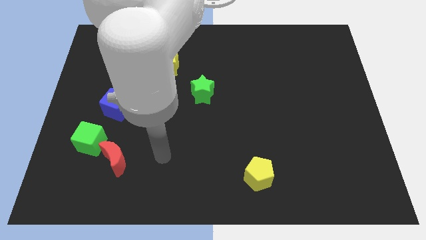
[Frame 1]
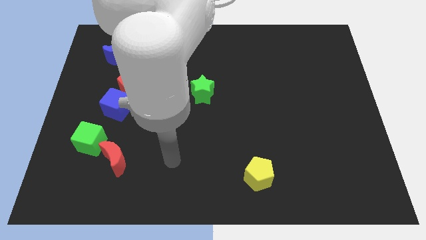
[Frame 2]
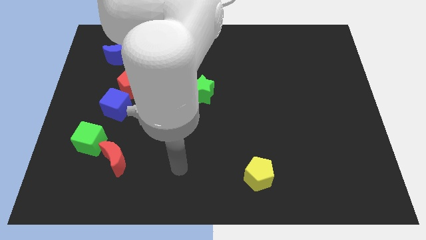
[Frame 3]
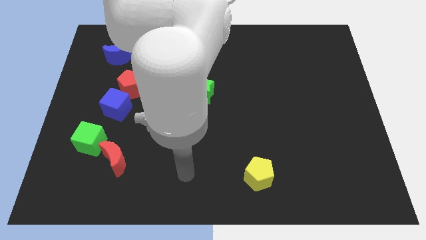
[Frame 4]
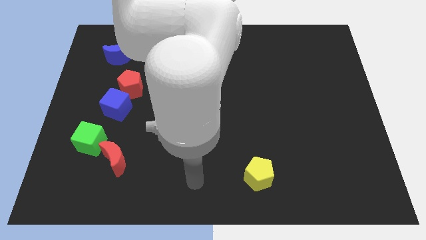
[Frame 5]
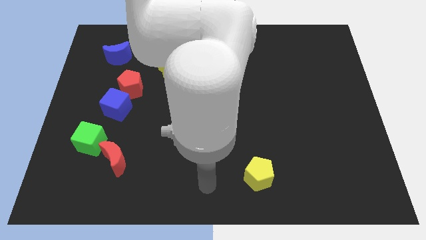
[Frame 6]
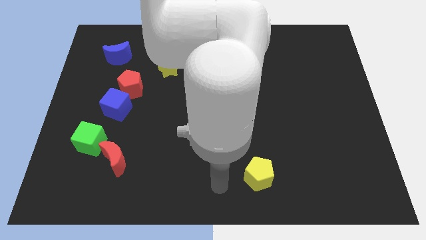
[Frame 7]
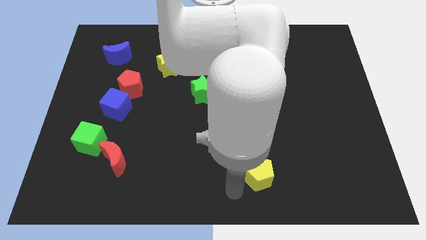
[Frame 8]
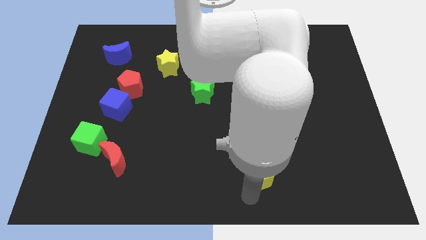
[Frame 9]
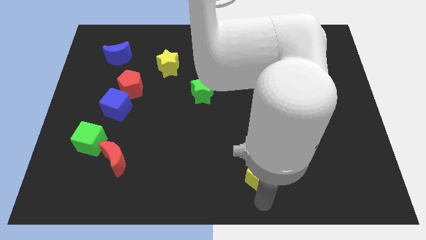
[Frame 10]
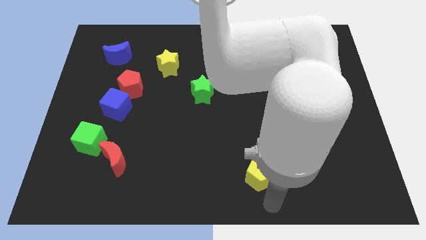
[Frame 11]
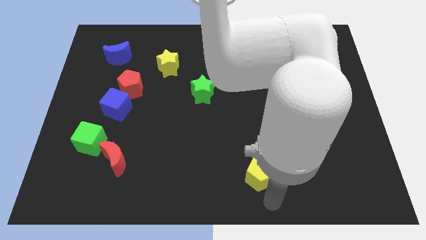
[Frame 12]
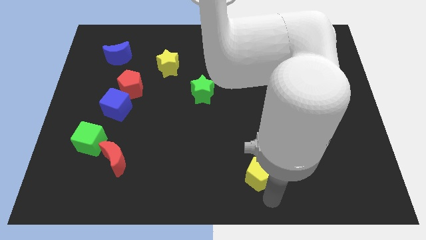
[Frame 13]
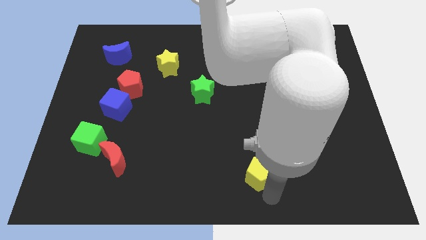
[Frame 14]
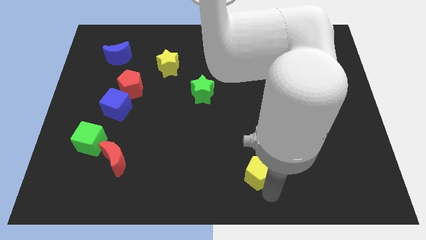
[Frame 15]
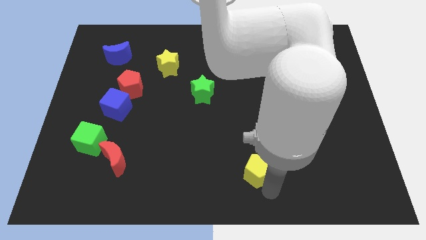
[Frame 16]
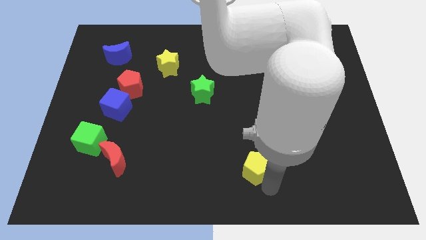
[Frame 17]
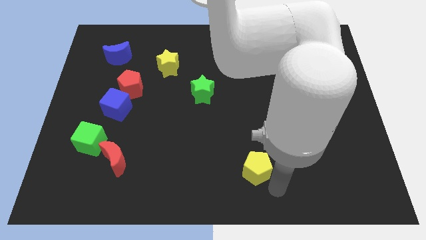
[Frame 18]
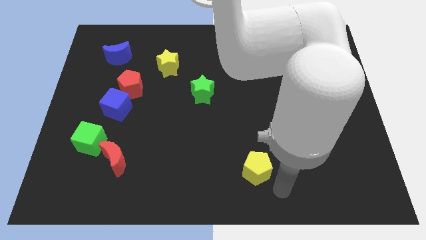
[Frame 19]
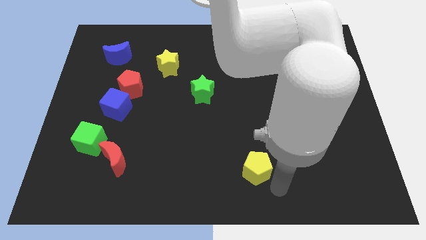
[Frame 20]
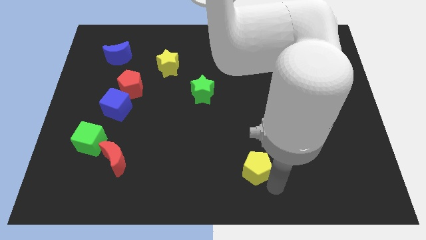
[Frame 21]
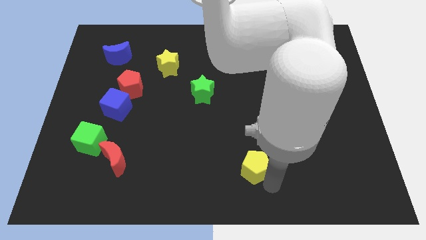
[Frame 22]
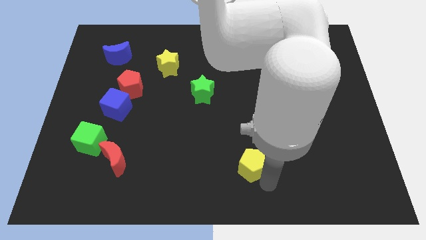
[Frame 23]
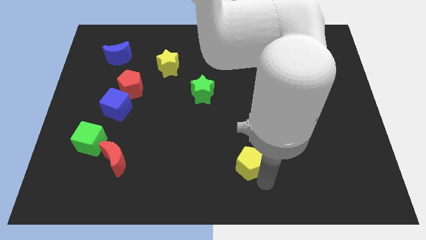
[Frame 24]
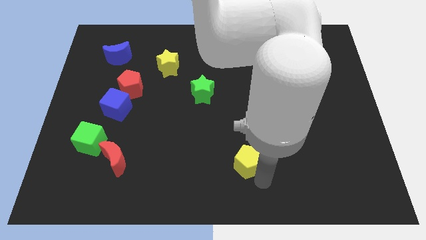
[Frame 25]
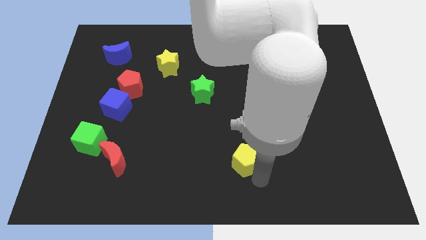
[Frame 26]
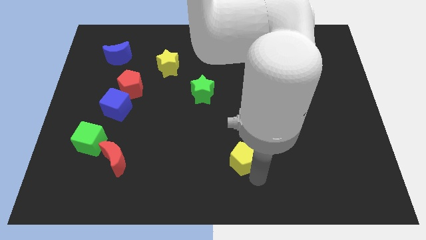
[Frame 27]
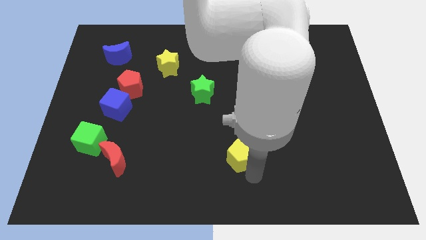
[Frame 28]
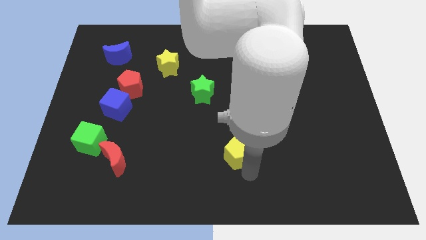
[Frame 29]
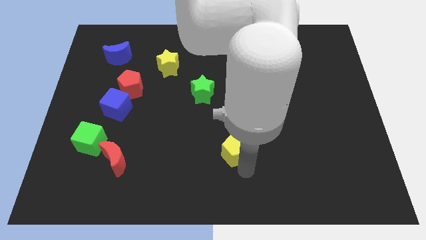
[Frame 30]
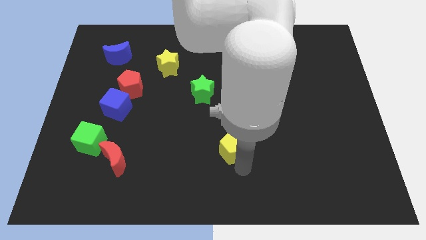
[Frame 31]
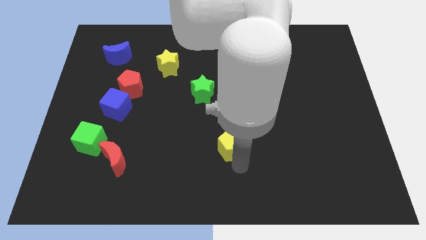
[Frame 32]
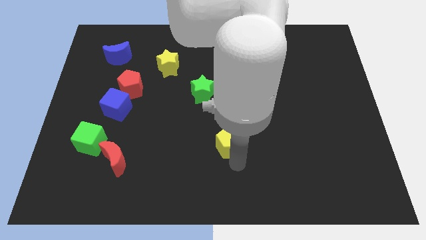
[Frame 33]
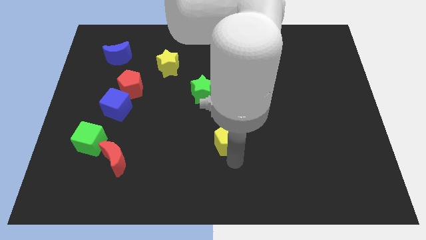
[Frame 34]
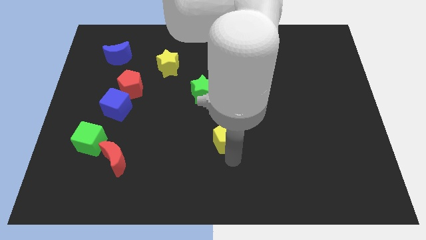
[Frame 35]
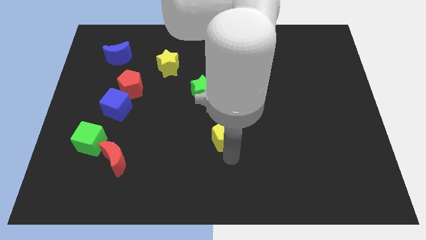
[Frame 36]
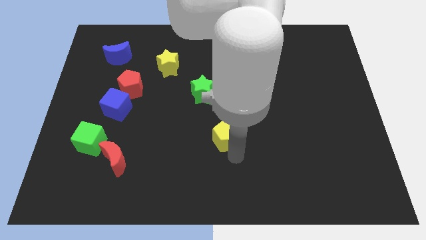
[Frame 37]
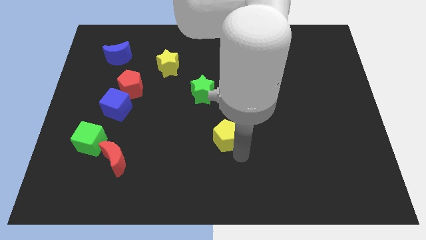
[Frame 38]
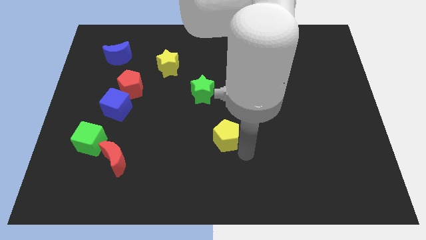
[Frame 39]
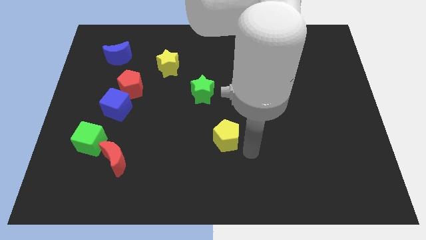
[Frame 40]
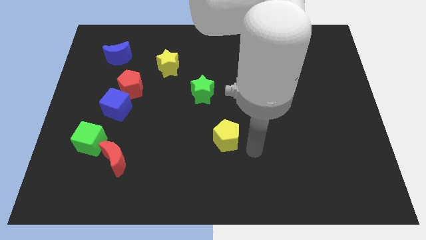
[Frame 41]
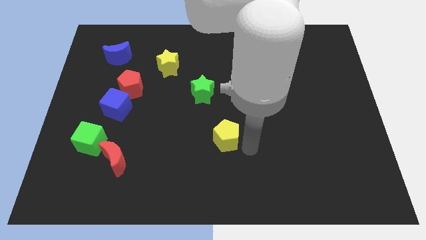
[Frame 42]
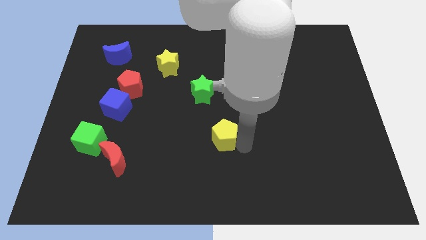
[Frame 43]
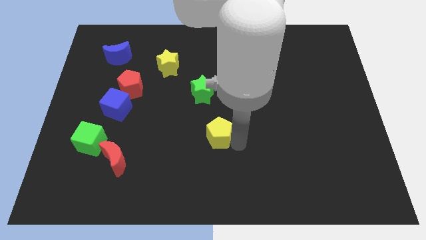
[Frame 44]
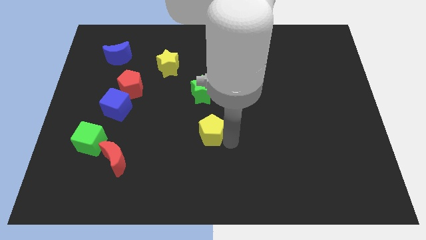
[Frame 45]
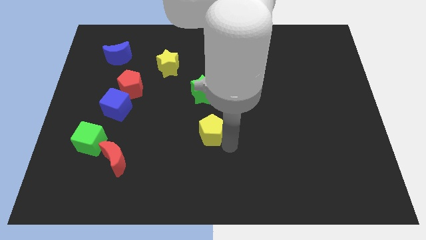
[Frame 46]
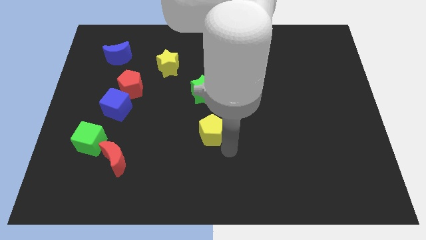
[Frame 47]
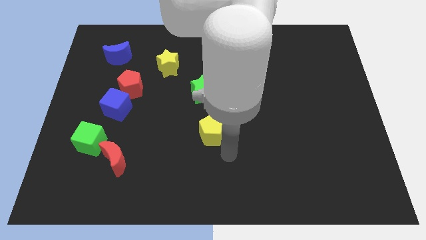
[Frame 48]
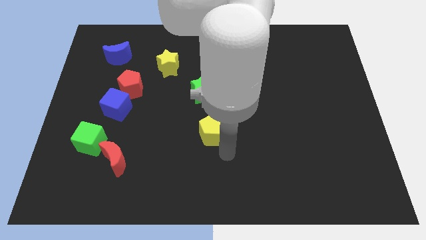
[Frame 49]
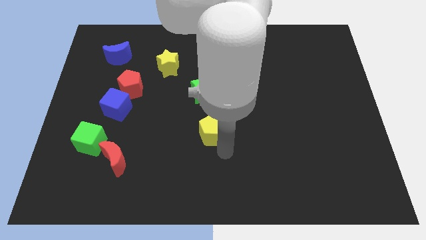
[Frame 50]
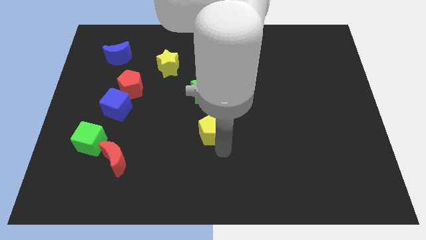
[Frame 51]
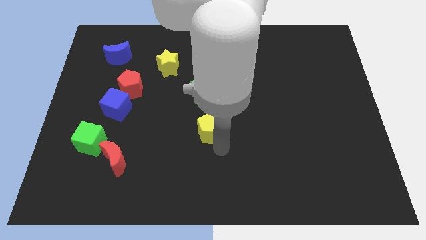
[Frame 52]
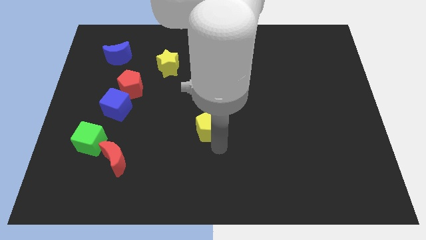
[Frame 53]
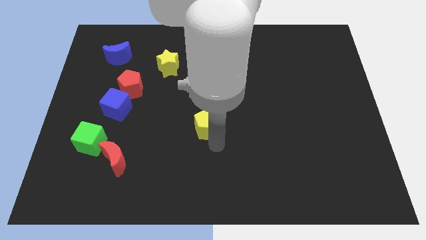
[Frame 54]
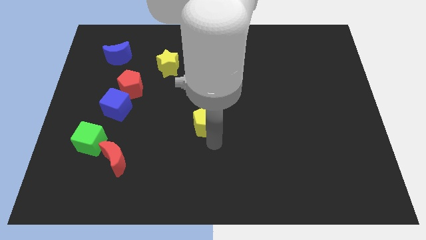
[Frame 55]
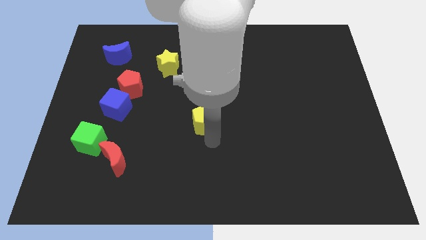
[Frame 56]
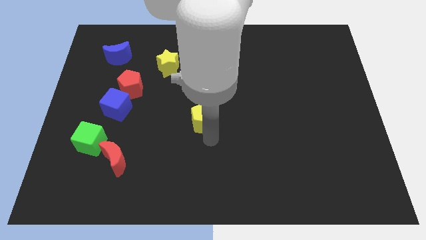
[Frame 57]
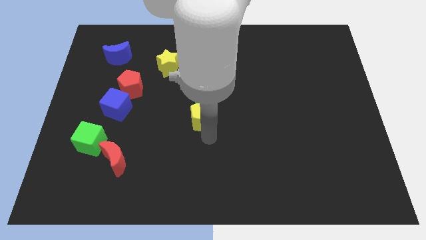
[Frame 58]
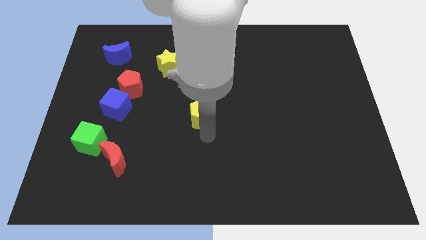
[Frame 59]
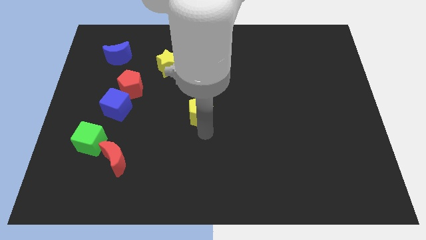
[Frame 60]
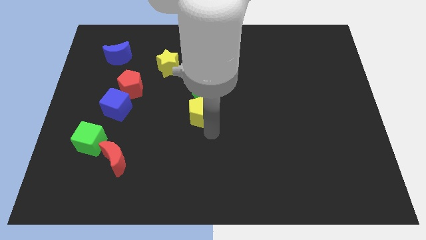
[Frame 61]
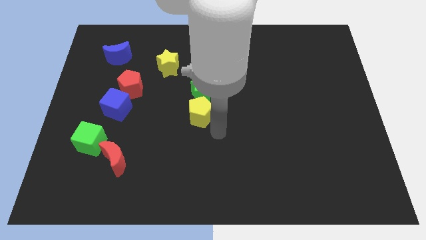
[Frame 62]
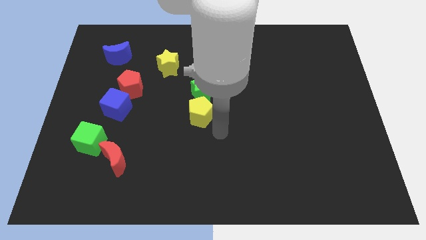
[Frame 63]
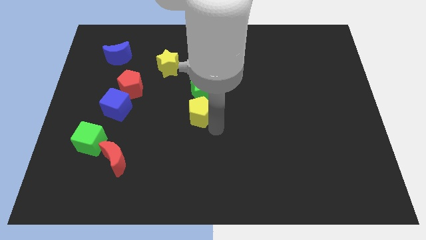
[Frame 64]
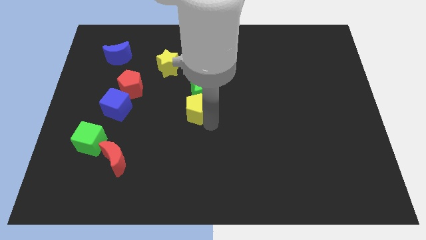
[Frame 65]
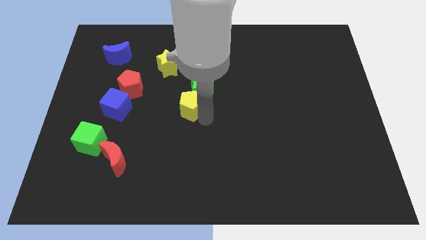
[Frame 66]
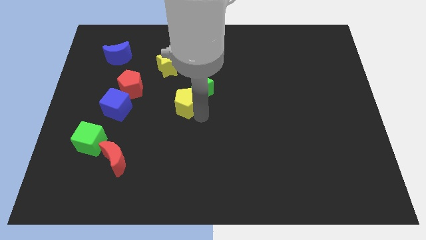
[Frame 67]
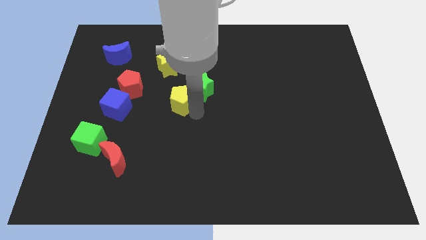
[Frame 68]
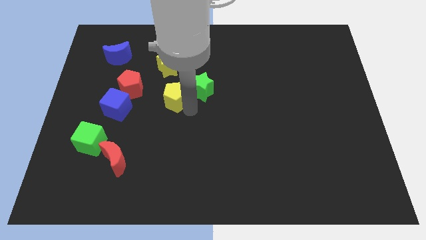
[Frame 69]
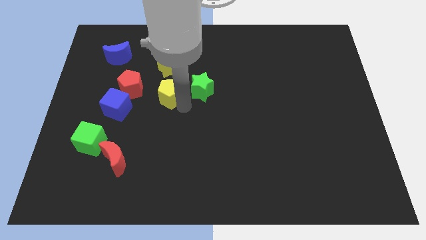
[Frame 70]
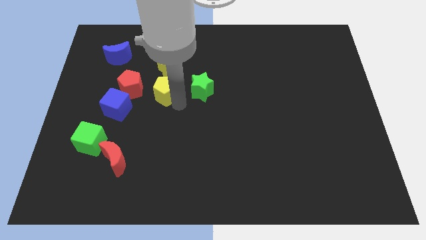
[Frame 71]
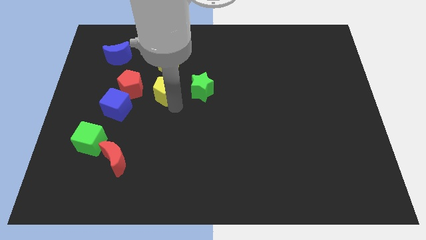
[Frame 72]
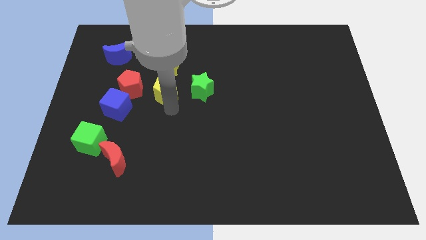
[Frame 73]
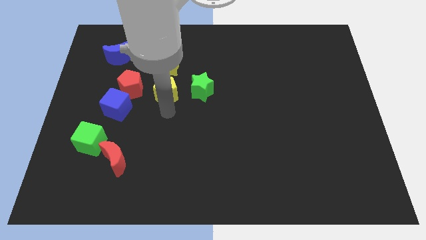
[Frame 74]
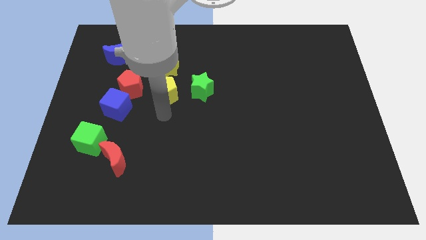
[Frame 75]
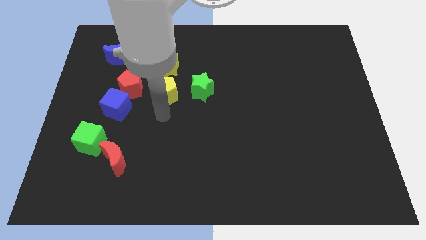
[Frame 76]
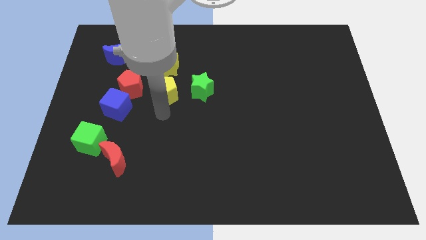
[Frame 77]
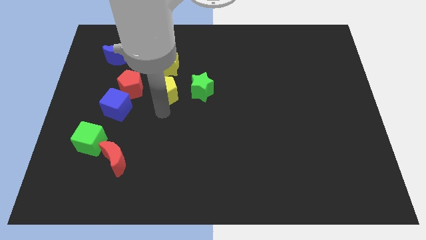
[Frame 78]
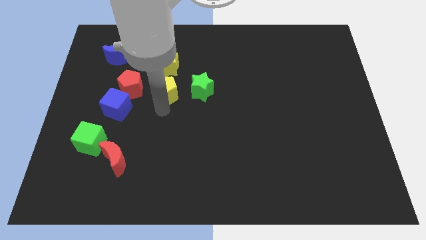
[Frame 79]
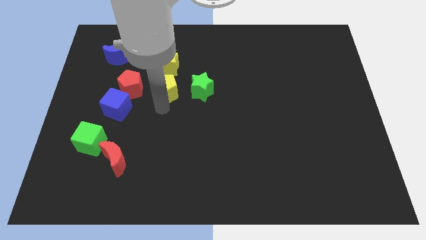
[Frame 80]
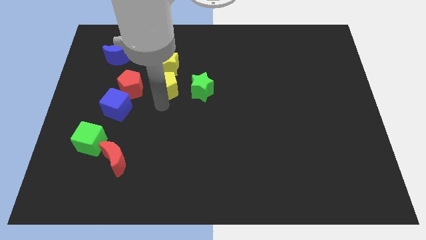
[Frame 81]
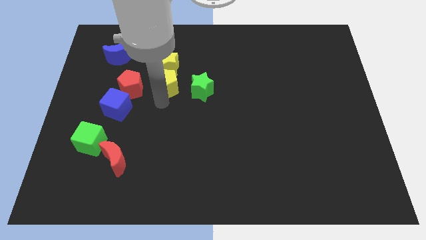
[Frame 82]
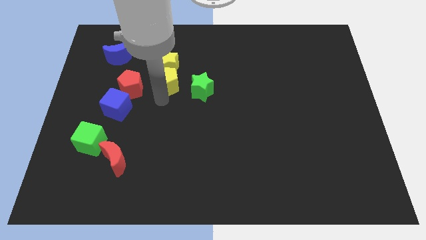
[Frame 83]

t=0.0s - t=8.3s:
push the yellow pentagon next to the yellow star
